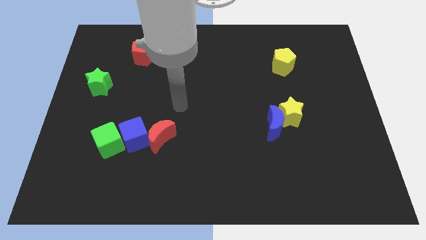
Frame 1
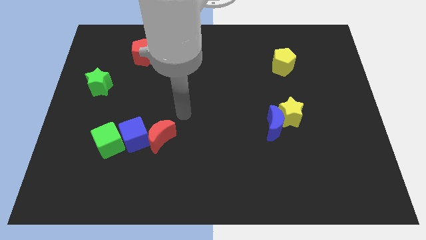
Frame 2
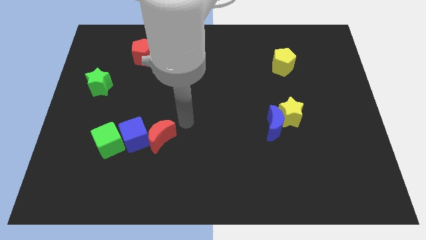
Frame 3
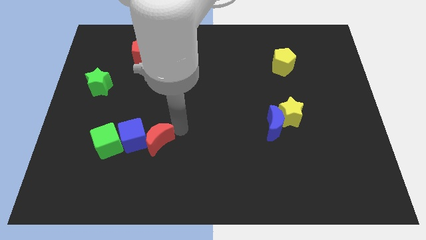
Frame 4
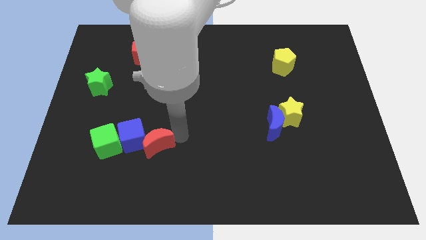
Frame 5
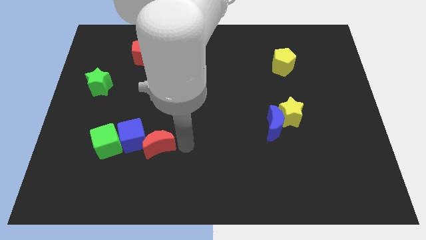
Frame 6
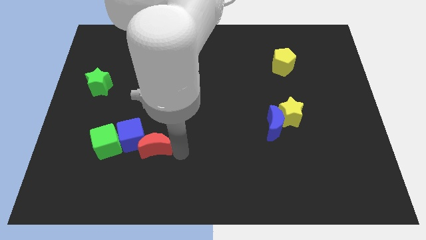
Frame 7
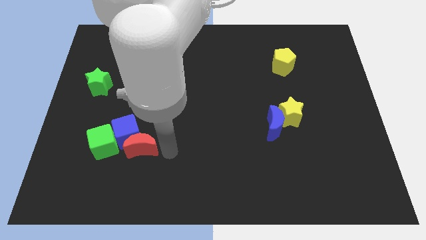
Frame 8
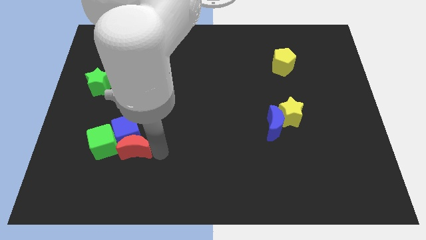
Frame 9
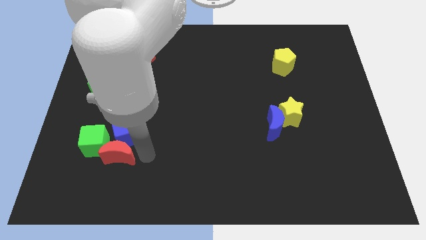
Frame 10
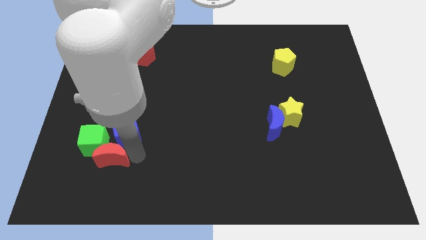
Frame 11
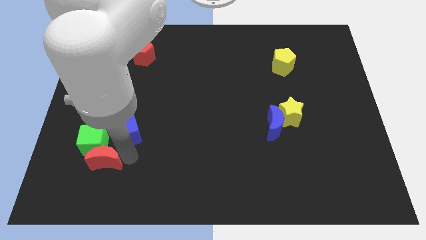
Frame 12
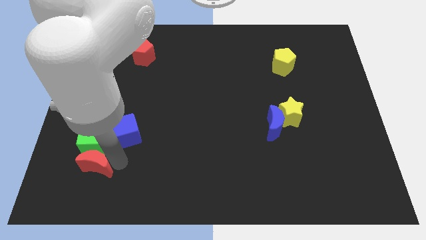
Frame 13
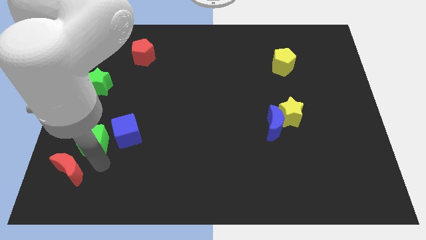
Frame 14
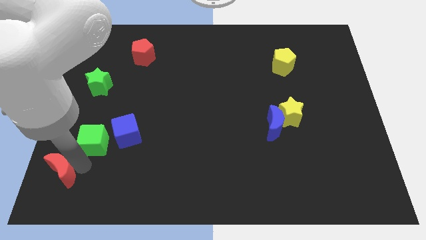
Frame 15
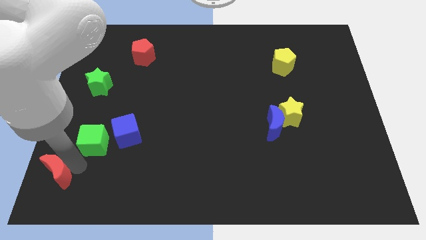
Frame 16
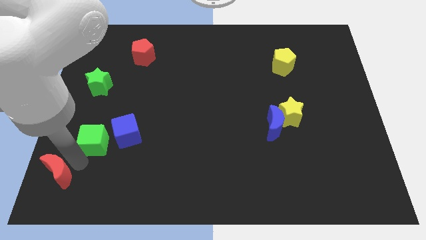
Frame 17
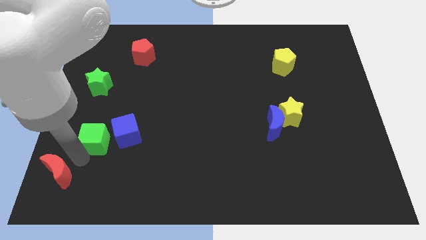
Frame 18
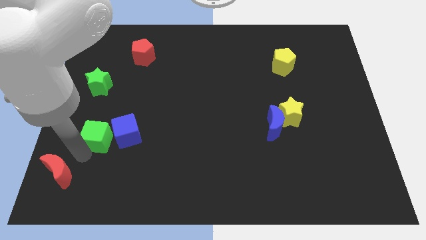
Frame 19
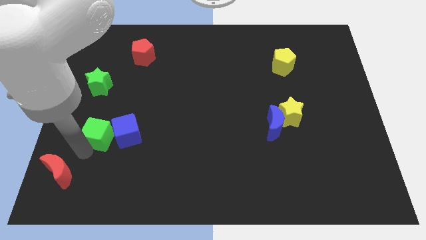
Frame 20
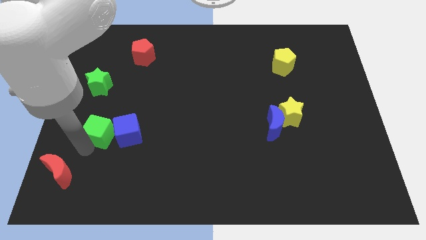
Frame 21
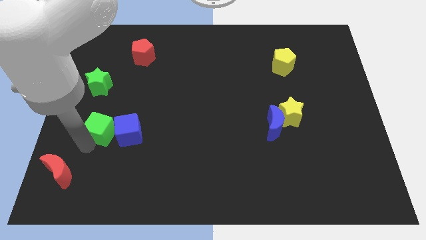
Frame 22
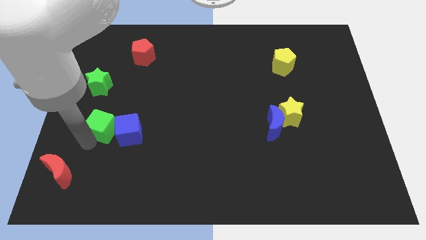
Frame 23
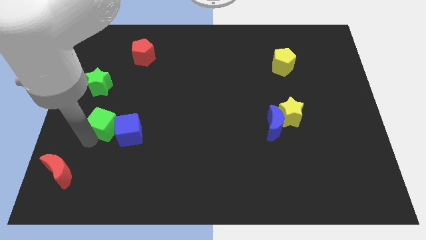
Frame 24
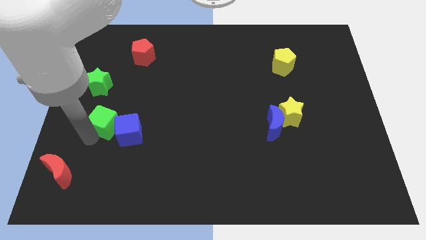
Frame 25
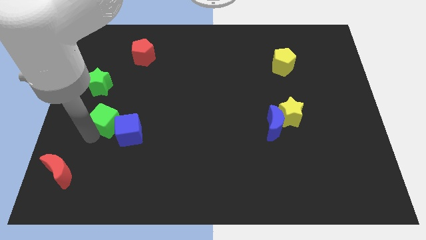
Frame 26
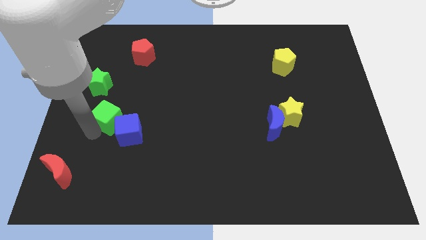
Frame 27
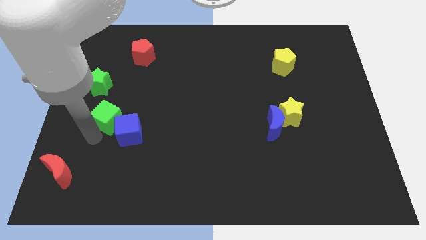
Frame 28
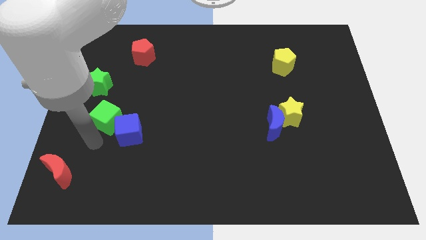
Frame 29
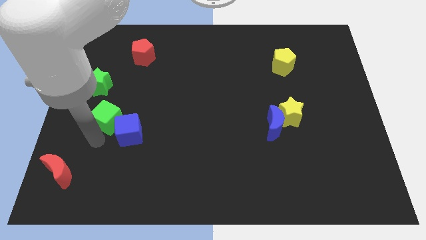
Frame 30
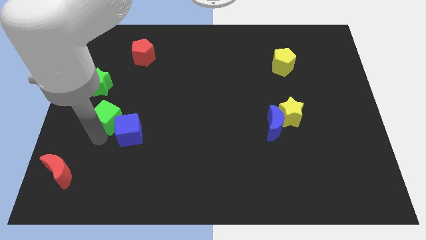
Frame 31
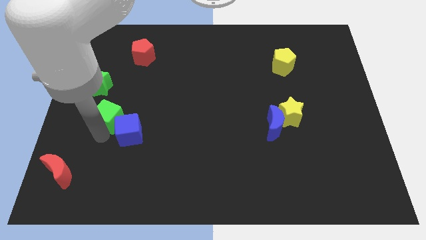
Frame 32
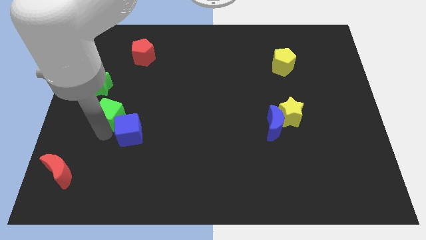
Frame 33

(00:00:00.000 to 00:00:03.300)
slide the green cube upwards a little bit

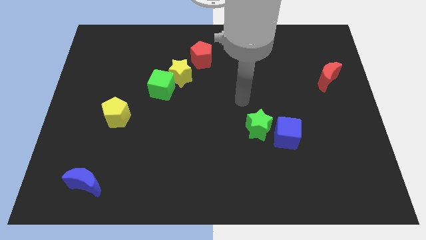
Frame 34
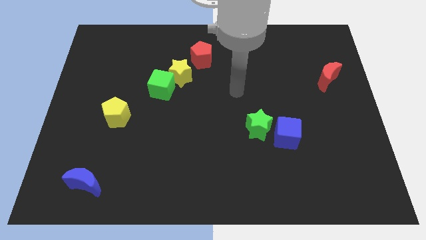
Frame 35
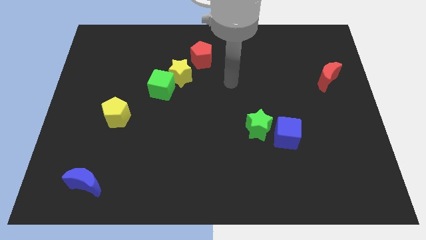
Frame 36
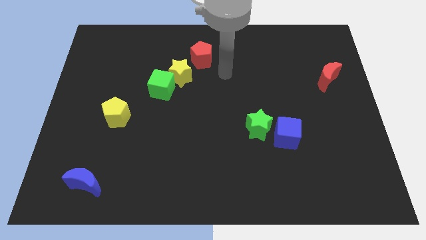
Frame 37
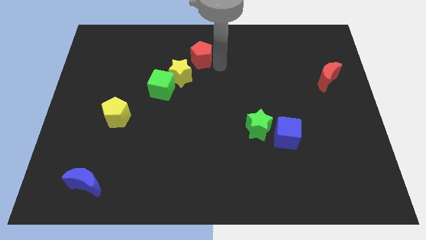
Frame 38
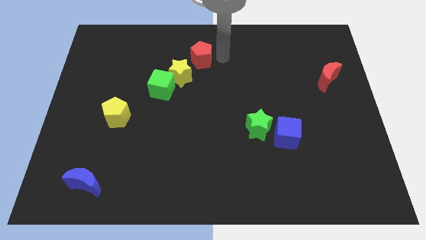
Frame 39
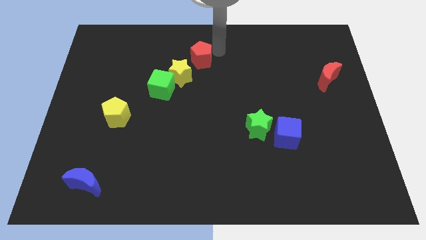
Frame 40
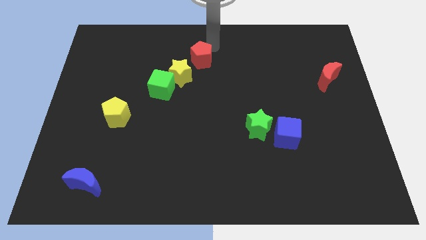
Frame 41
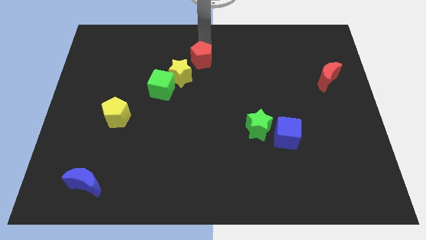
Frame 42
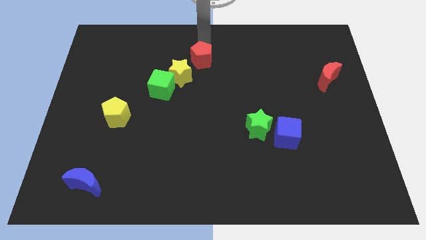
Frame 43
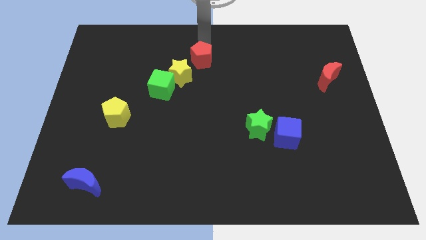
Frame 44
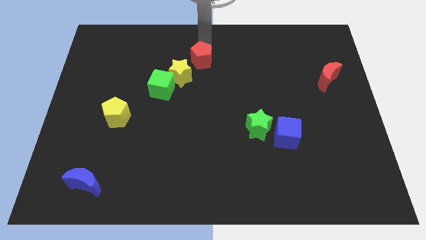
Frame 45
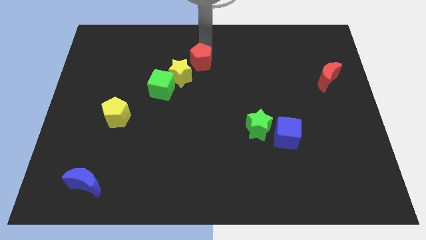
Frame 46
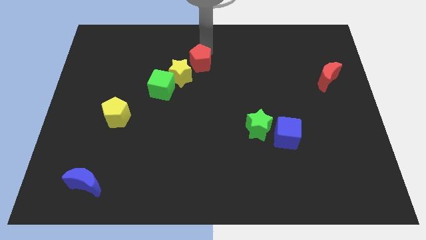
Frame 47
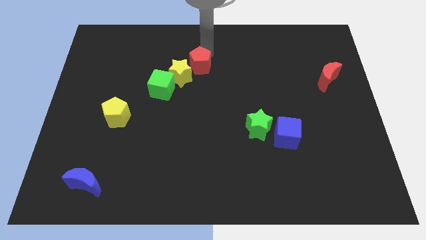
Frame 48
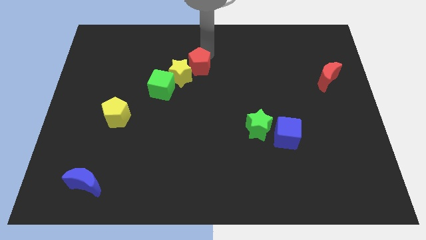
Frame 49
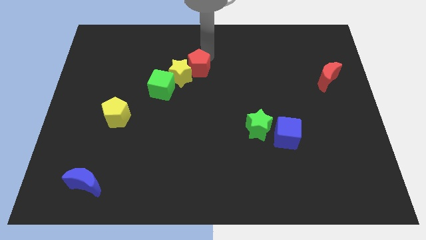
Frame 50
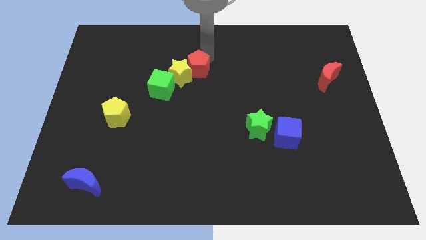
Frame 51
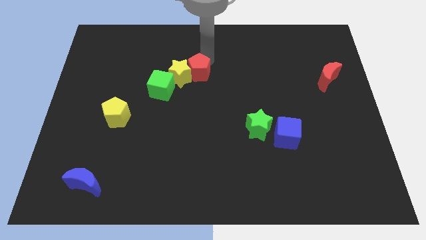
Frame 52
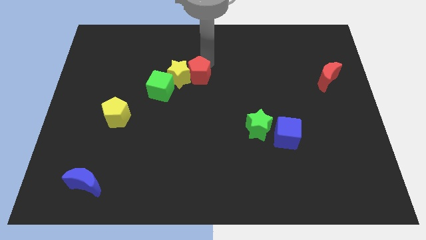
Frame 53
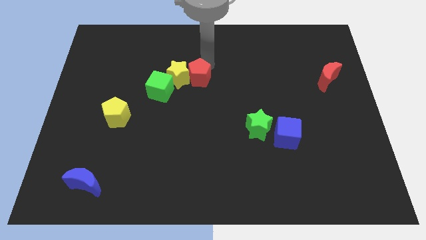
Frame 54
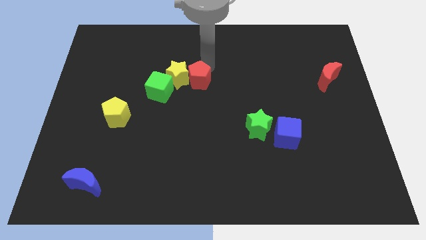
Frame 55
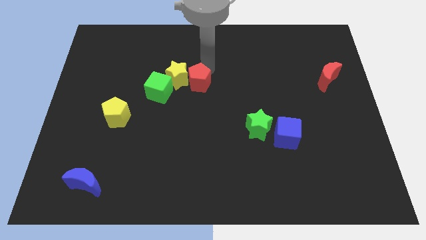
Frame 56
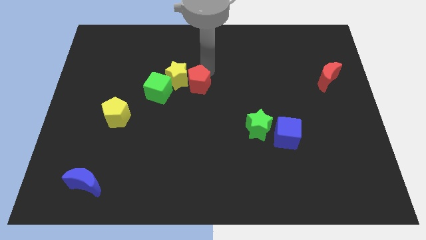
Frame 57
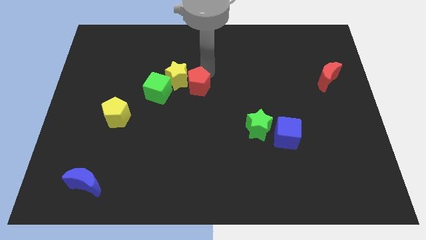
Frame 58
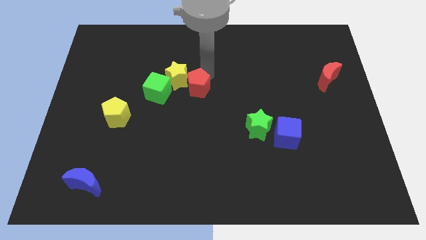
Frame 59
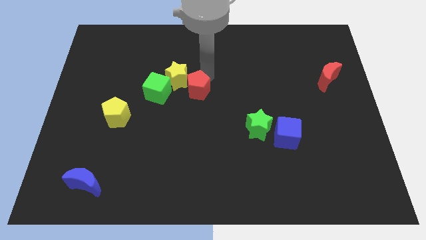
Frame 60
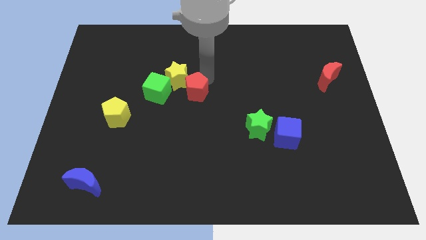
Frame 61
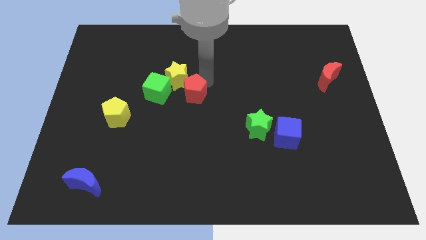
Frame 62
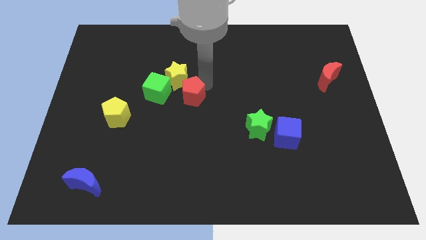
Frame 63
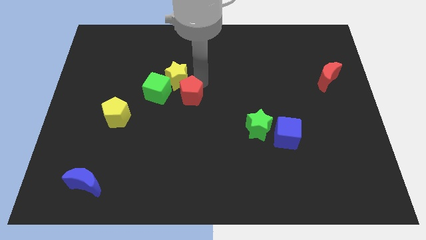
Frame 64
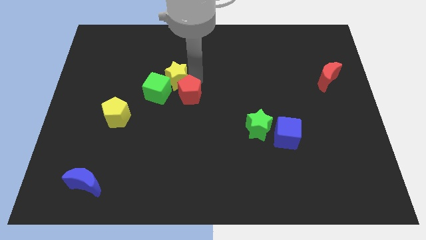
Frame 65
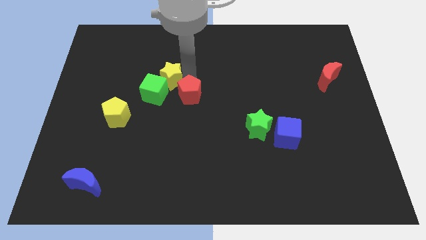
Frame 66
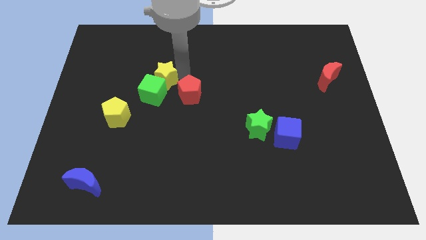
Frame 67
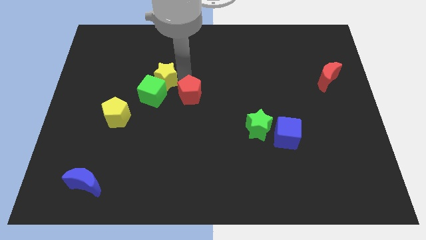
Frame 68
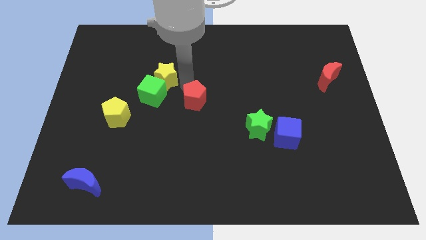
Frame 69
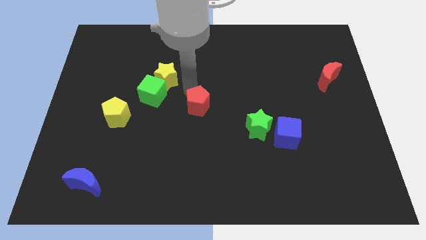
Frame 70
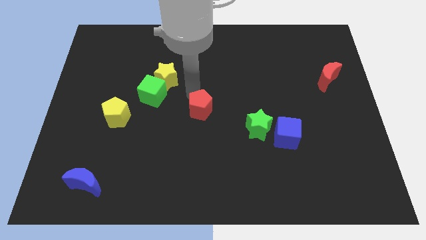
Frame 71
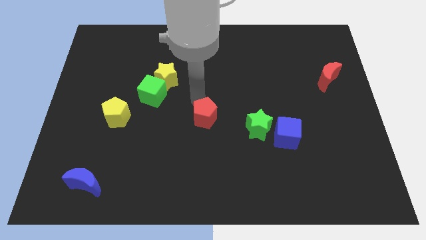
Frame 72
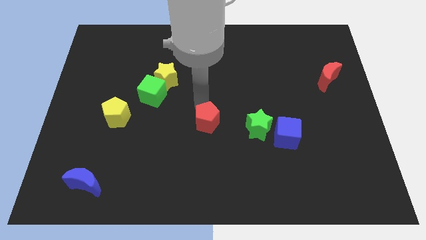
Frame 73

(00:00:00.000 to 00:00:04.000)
slide the red pentagon down

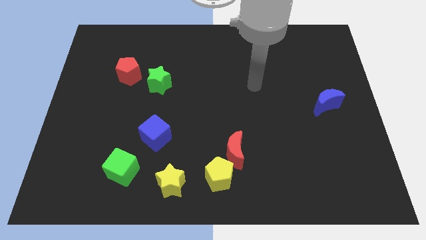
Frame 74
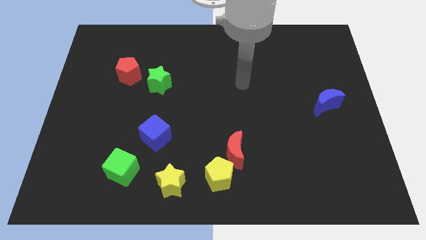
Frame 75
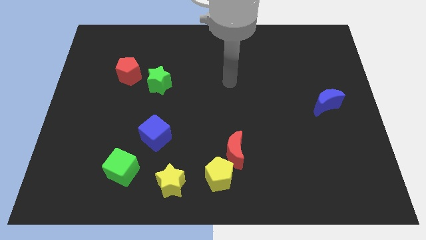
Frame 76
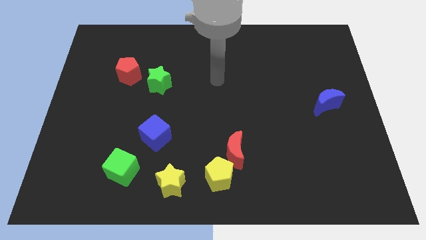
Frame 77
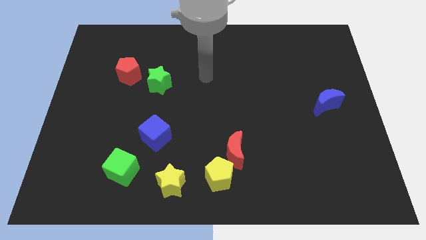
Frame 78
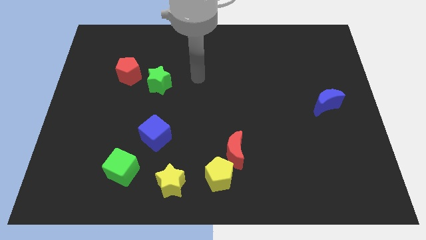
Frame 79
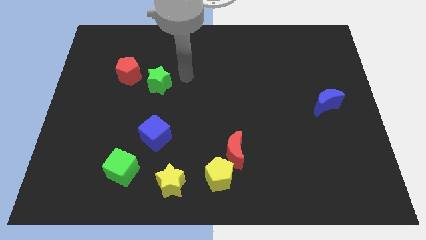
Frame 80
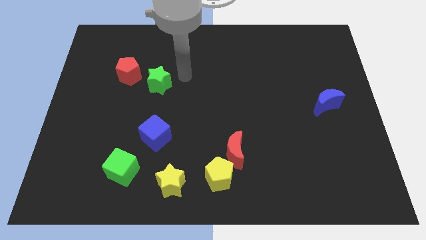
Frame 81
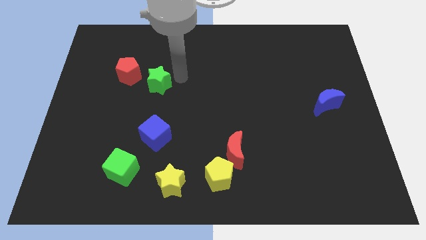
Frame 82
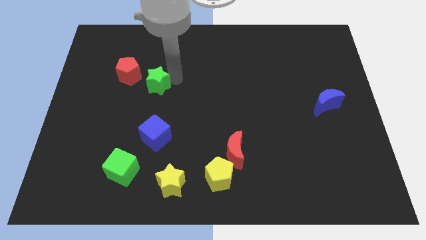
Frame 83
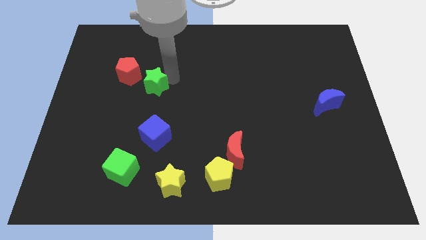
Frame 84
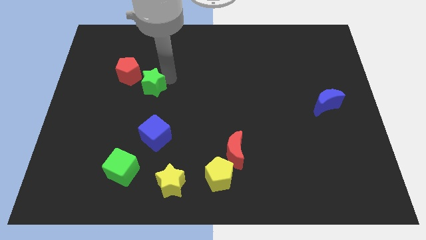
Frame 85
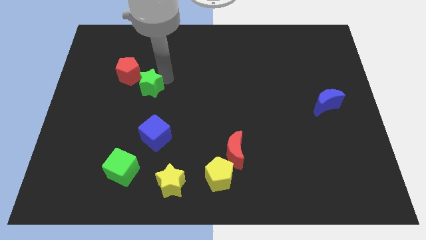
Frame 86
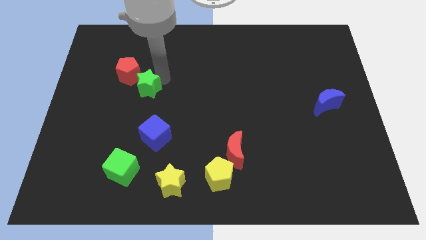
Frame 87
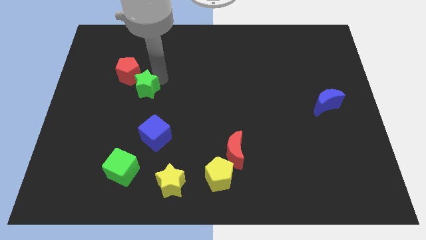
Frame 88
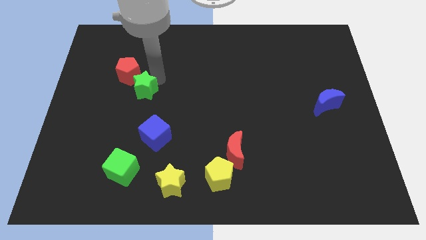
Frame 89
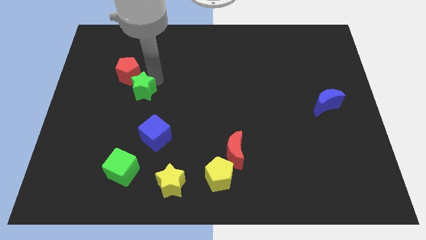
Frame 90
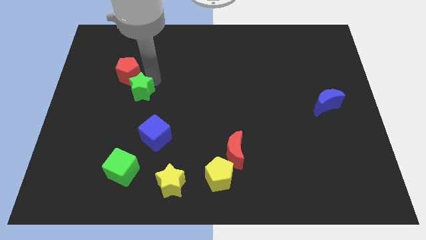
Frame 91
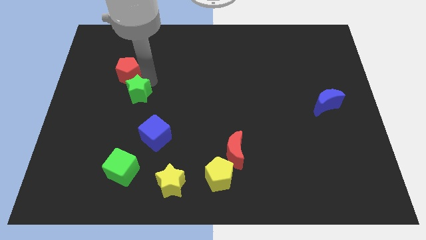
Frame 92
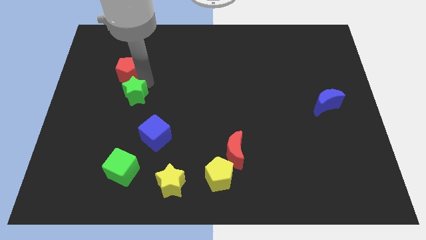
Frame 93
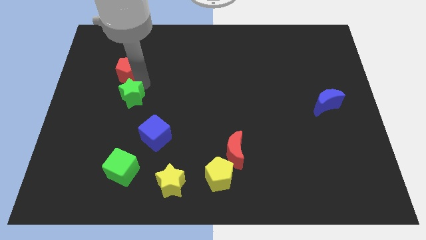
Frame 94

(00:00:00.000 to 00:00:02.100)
slightly move the green star downwards and left
